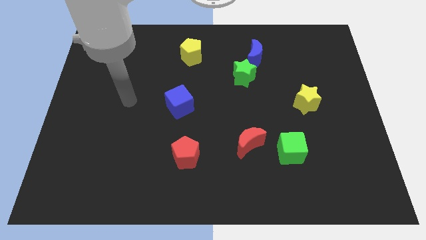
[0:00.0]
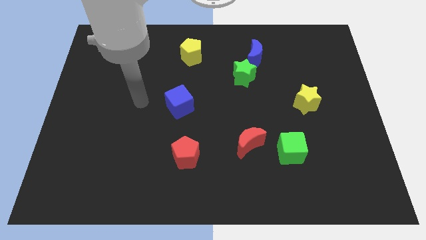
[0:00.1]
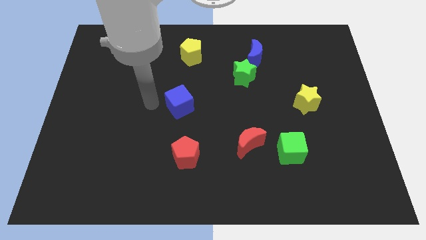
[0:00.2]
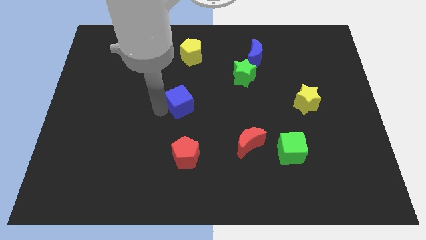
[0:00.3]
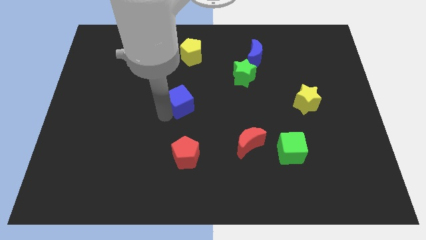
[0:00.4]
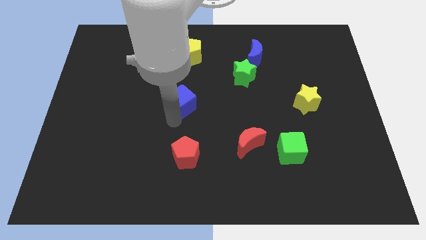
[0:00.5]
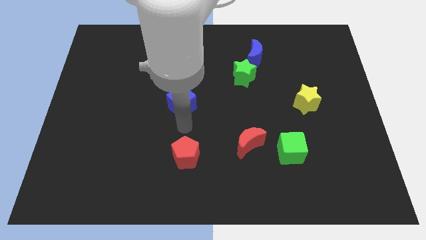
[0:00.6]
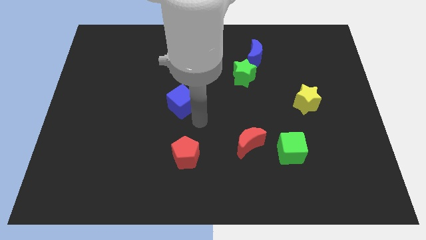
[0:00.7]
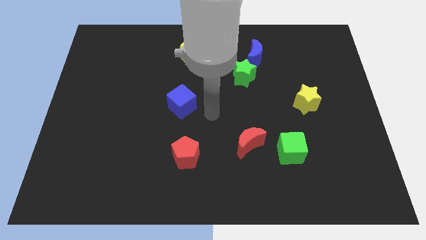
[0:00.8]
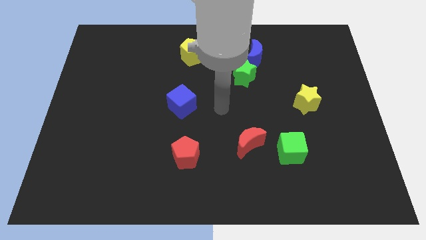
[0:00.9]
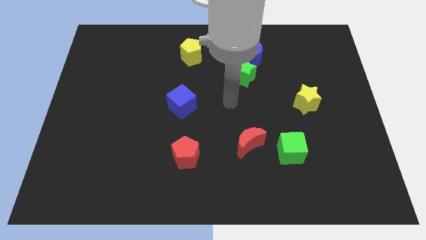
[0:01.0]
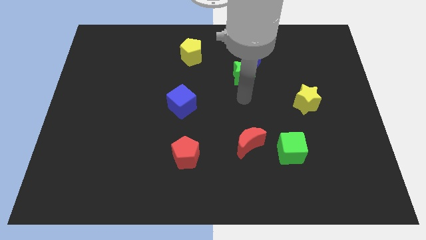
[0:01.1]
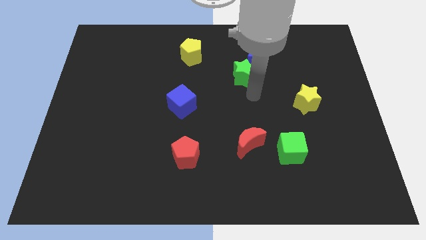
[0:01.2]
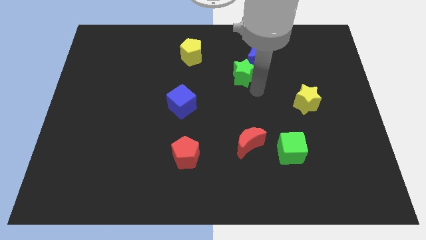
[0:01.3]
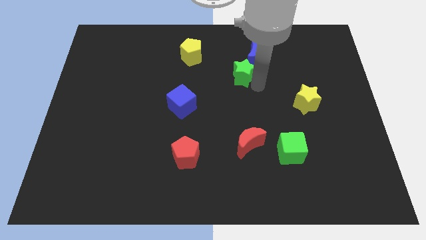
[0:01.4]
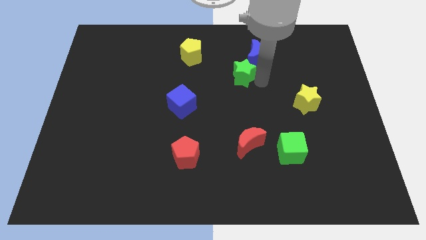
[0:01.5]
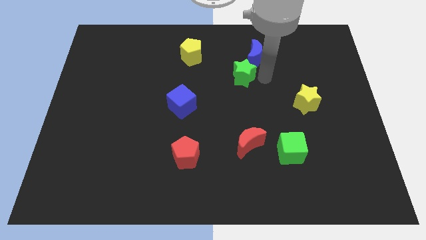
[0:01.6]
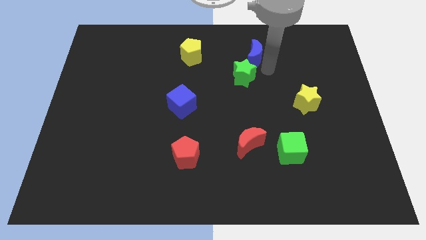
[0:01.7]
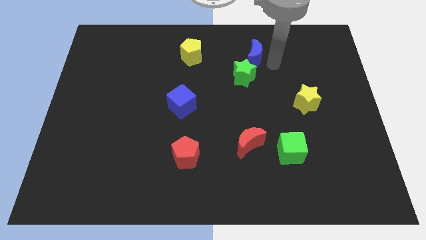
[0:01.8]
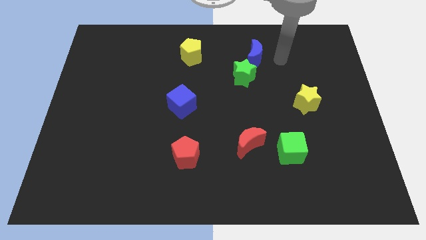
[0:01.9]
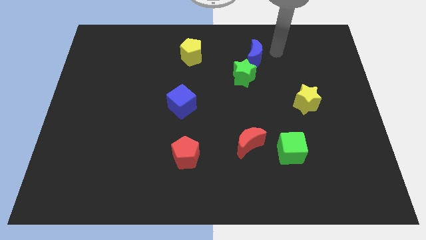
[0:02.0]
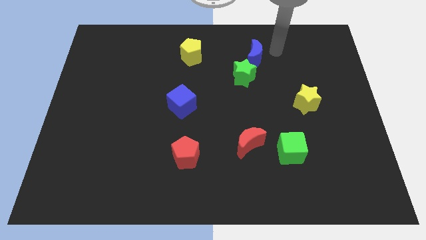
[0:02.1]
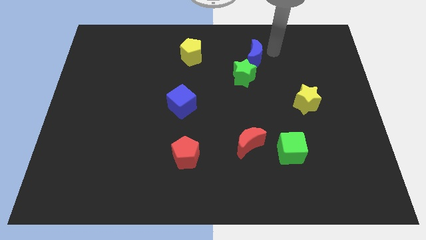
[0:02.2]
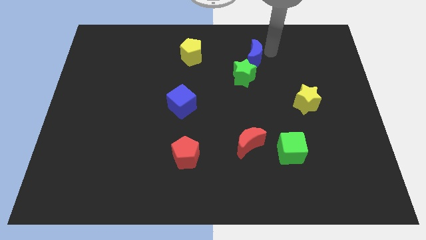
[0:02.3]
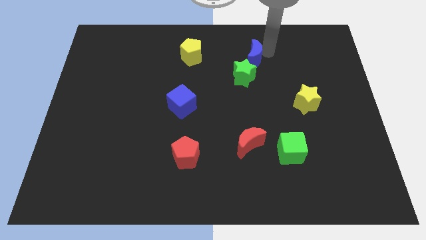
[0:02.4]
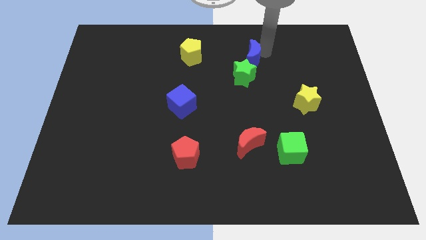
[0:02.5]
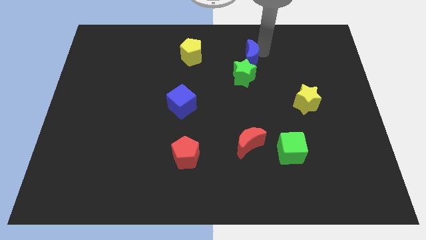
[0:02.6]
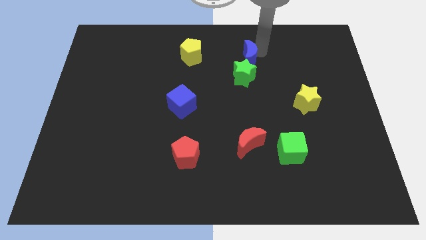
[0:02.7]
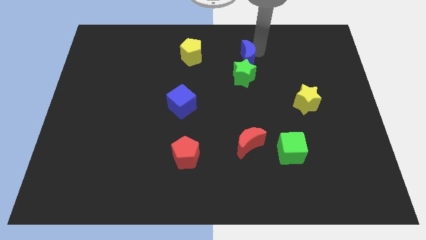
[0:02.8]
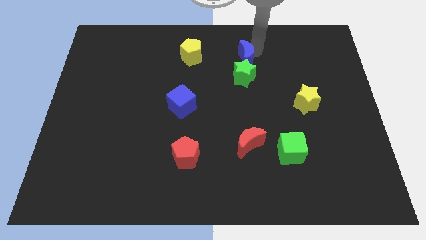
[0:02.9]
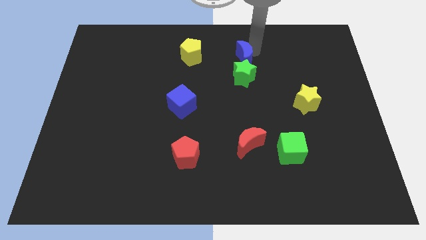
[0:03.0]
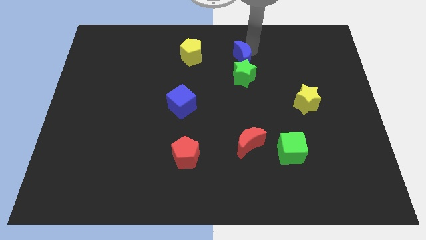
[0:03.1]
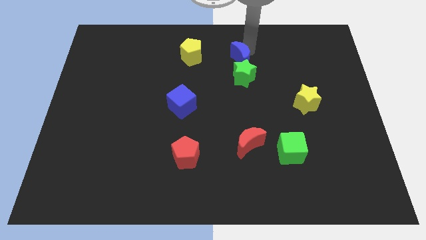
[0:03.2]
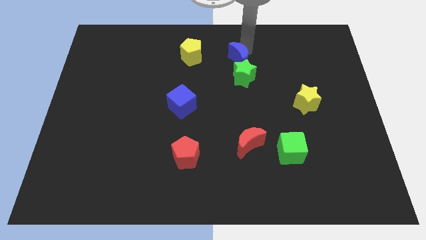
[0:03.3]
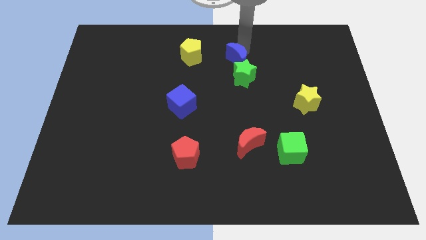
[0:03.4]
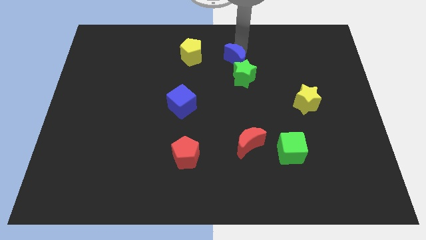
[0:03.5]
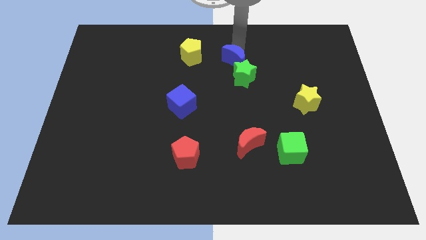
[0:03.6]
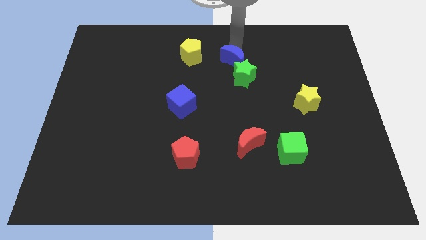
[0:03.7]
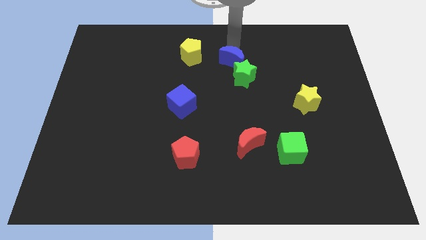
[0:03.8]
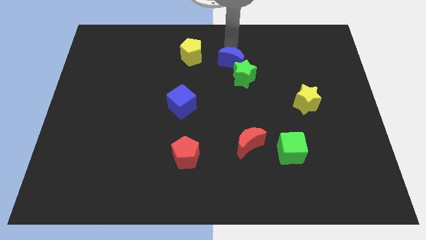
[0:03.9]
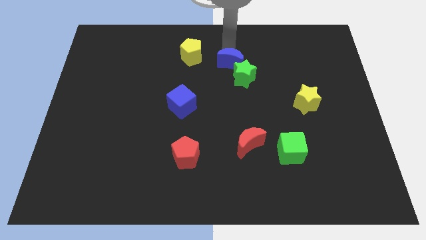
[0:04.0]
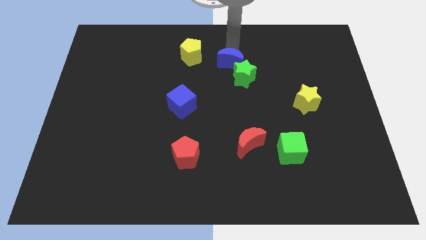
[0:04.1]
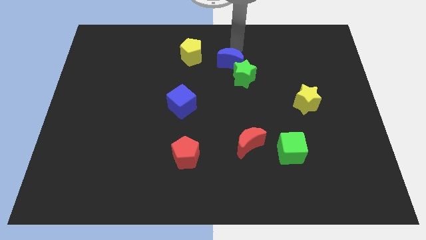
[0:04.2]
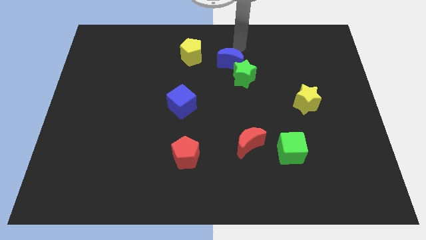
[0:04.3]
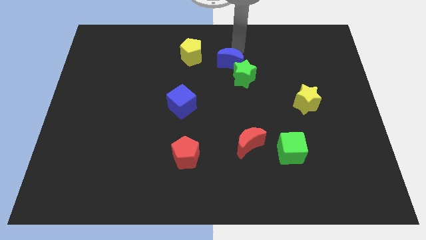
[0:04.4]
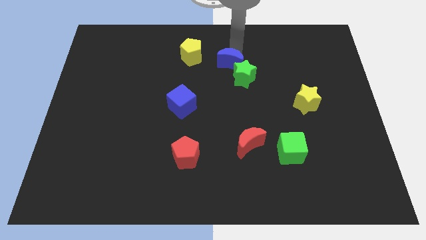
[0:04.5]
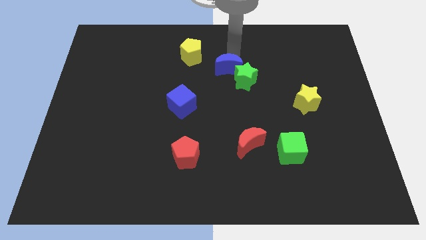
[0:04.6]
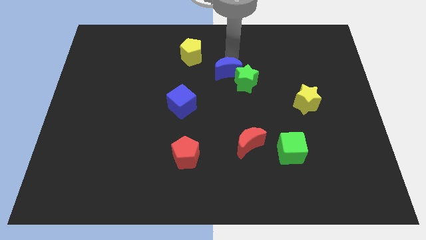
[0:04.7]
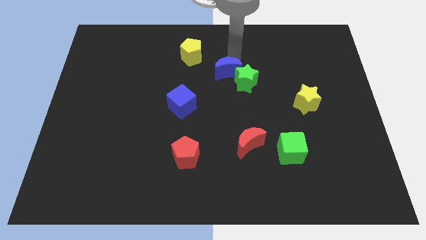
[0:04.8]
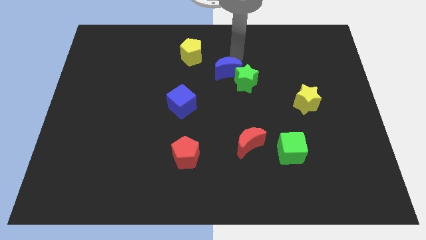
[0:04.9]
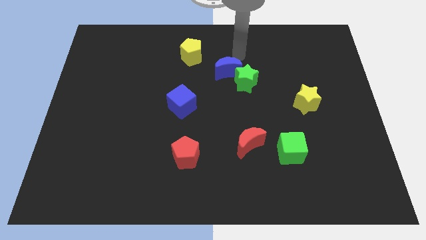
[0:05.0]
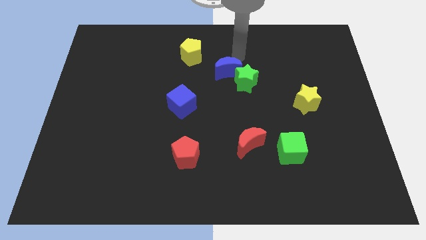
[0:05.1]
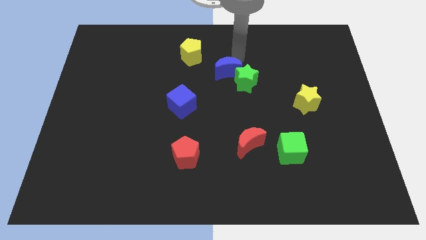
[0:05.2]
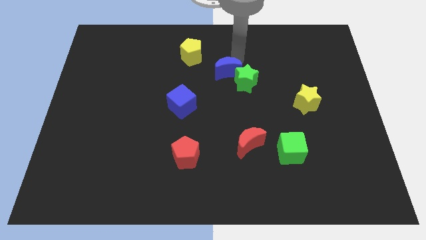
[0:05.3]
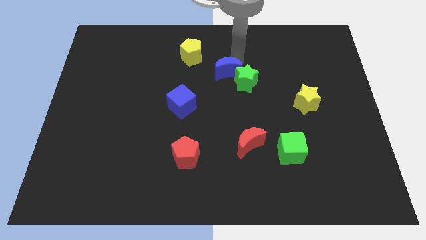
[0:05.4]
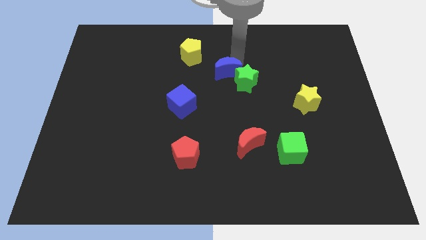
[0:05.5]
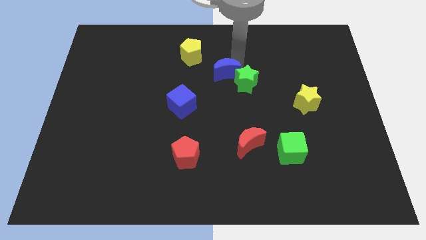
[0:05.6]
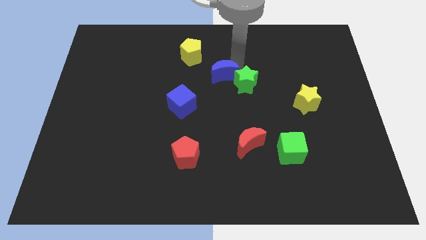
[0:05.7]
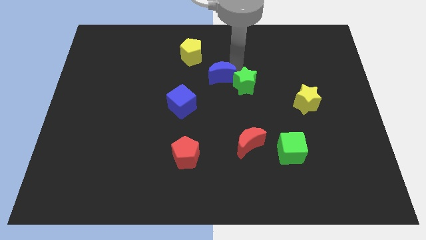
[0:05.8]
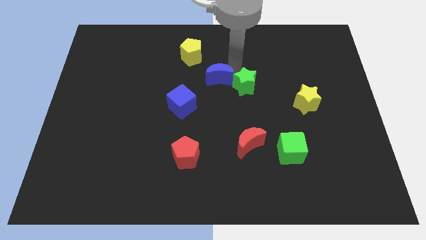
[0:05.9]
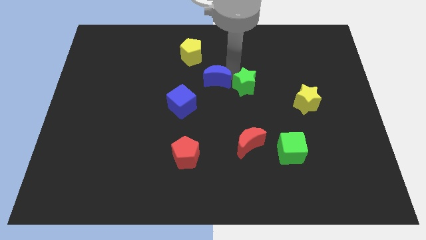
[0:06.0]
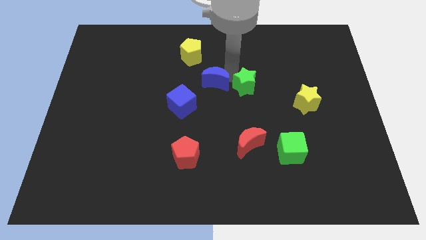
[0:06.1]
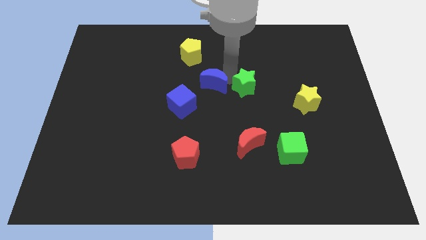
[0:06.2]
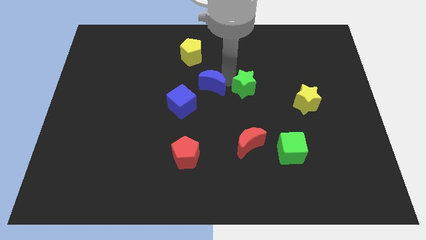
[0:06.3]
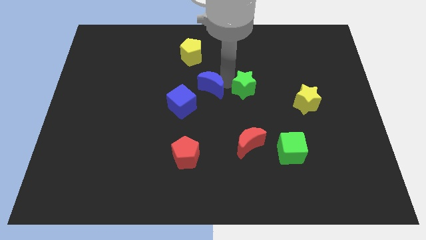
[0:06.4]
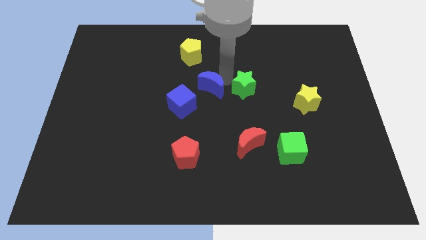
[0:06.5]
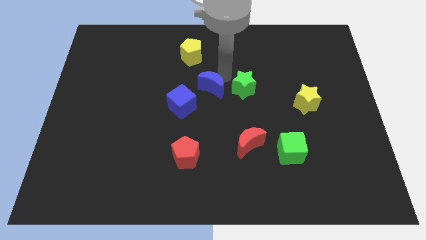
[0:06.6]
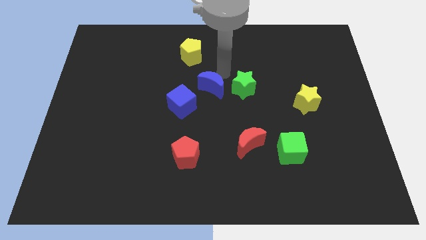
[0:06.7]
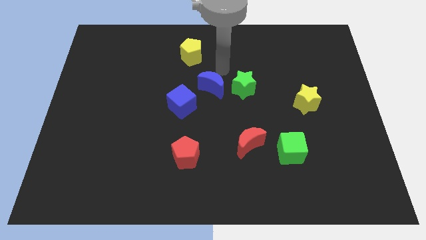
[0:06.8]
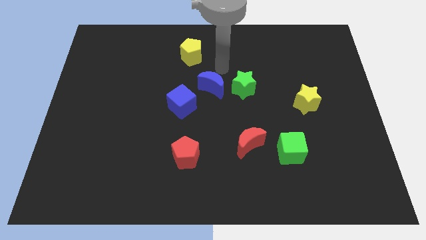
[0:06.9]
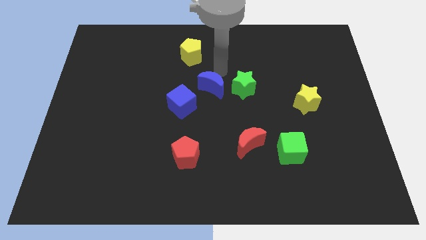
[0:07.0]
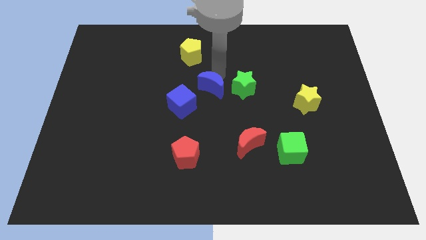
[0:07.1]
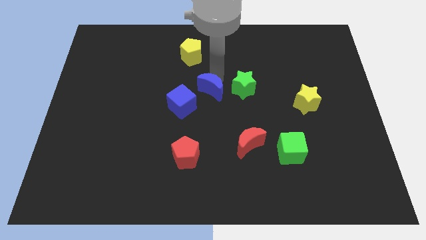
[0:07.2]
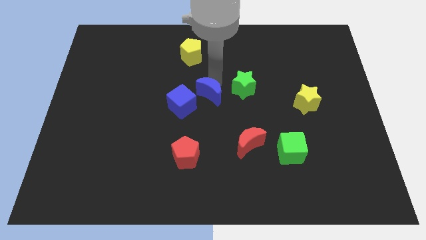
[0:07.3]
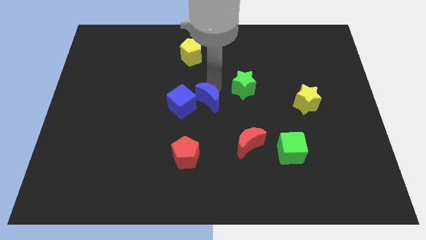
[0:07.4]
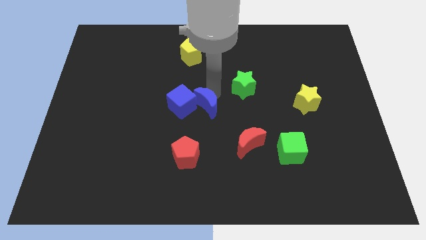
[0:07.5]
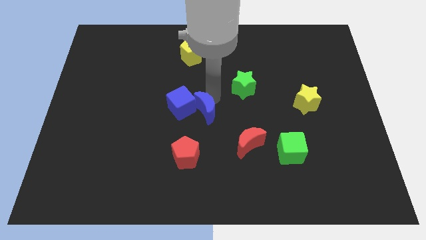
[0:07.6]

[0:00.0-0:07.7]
slide the blue moon down and to the left
